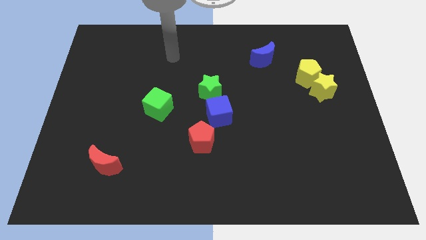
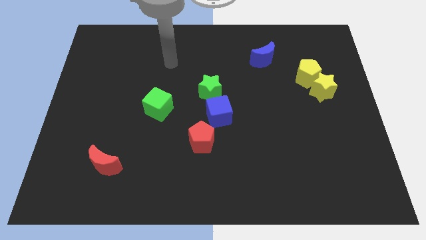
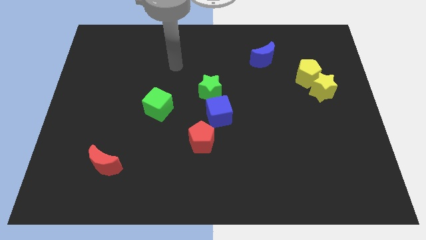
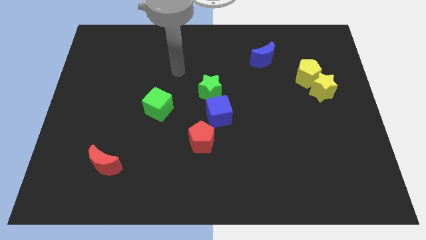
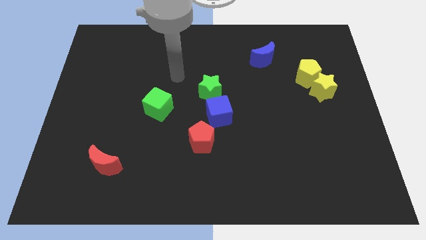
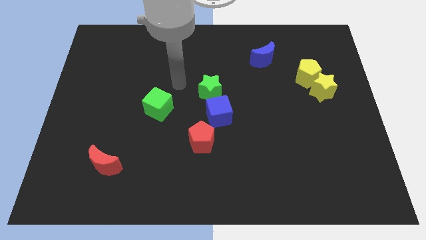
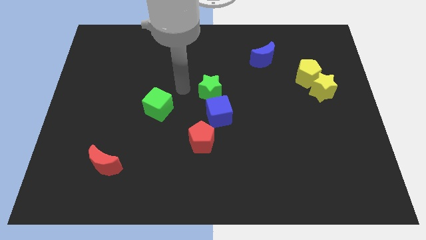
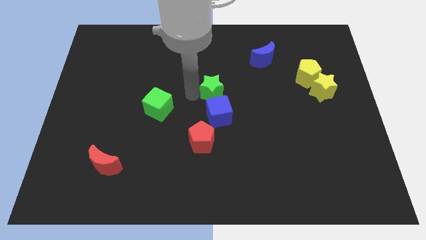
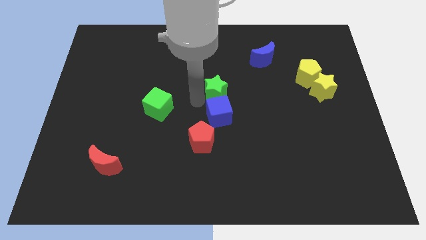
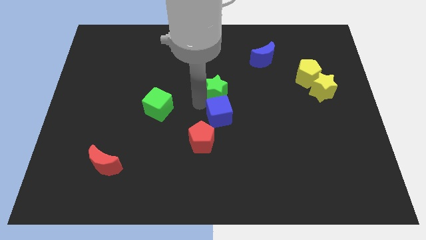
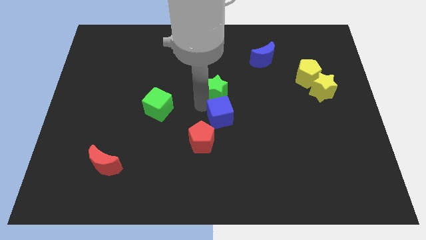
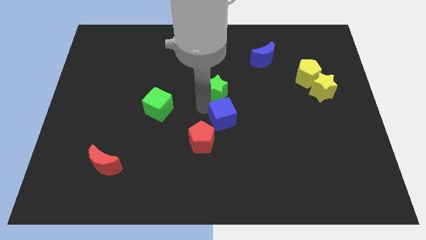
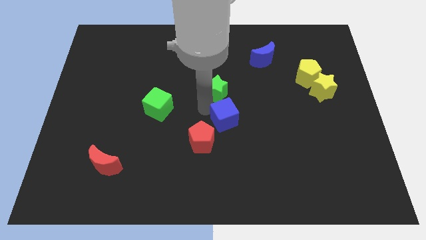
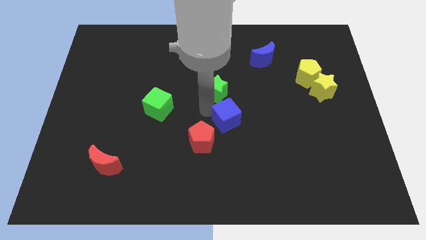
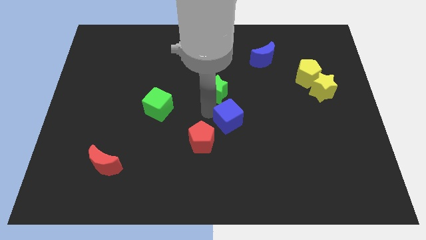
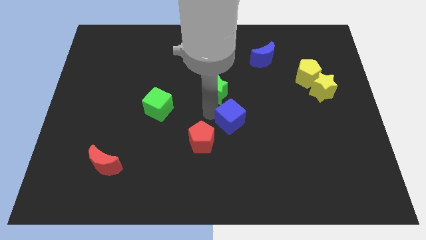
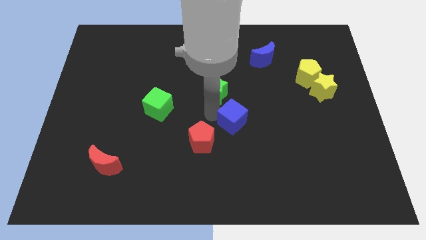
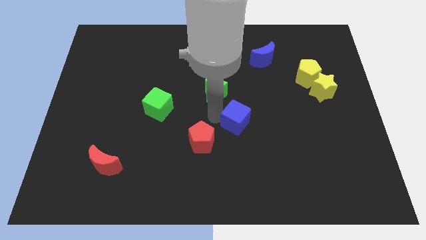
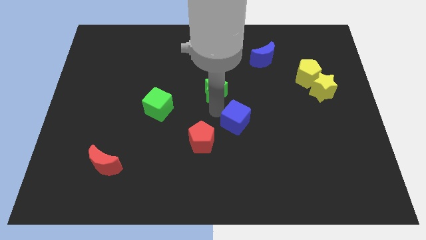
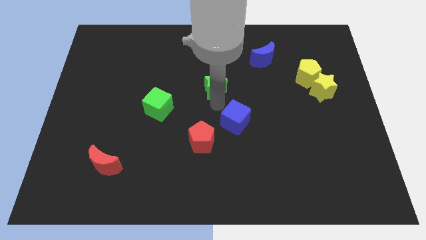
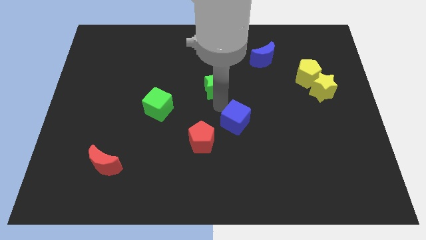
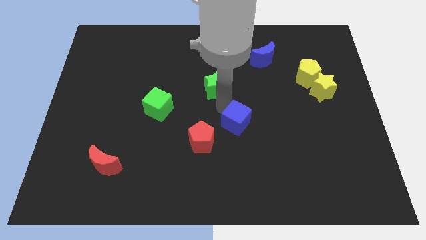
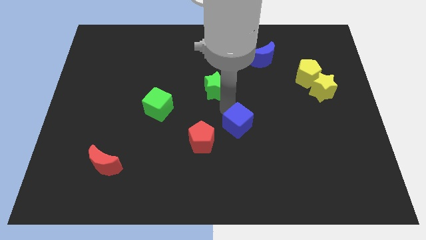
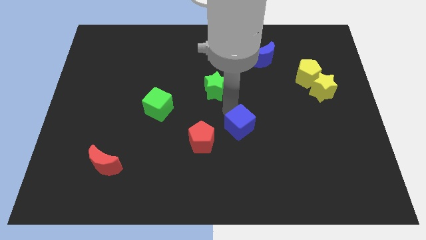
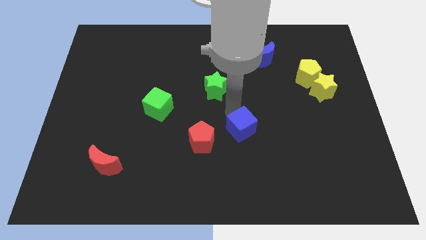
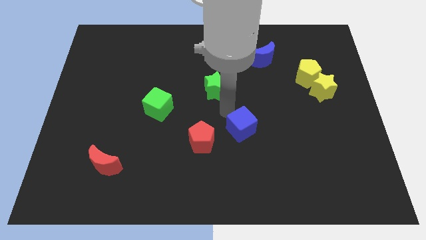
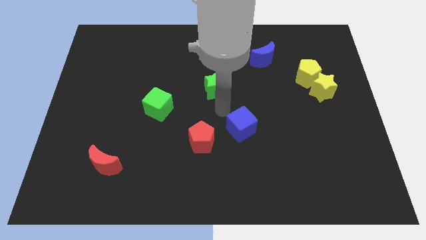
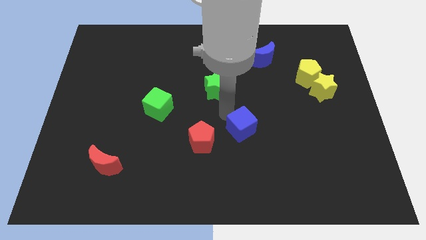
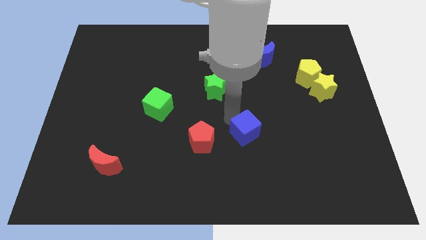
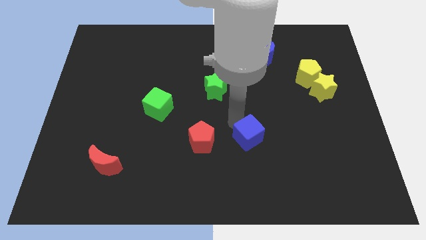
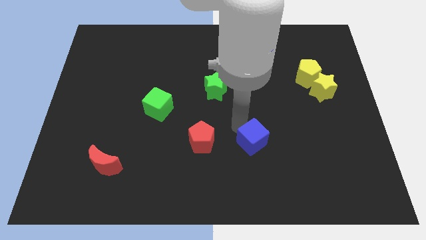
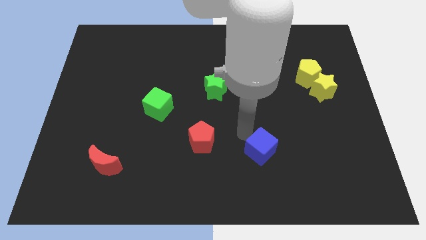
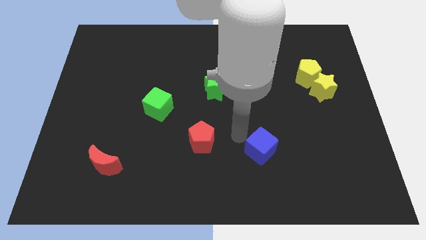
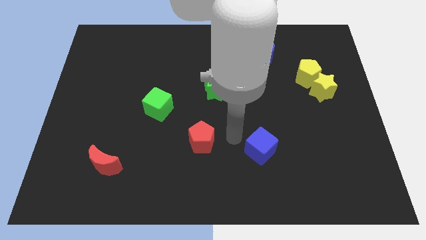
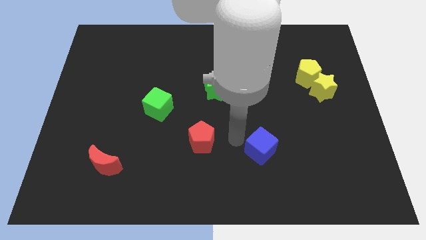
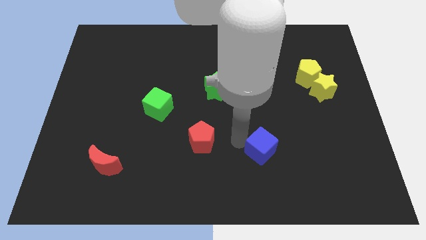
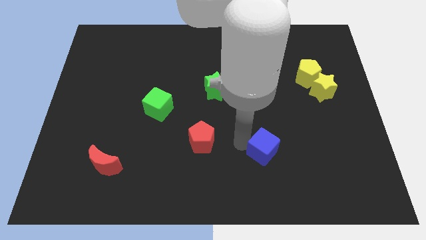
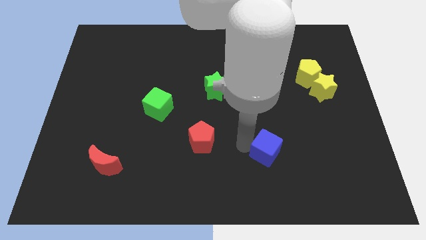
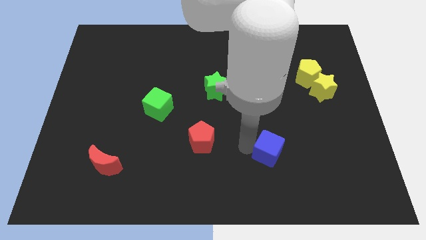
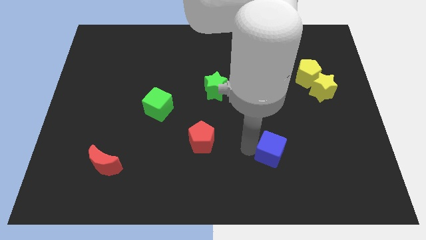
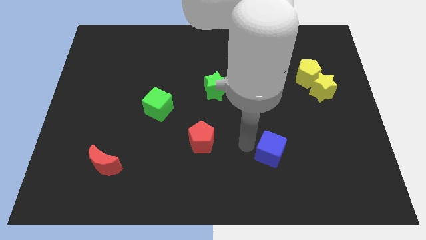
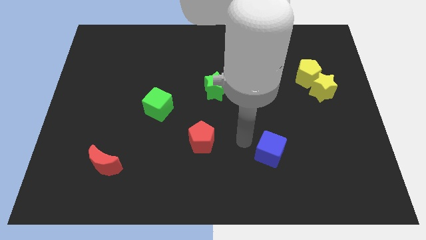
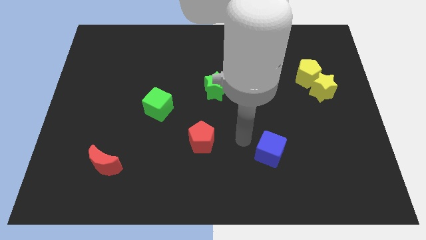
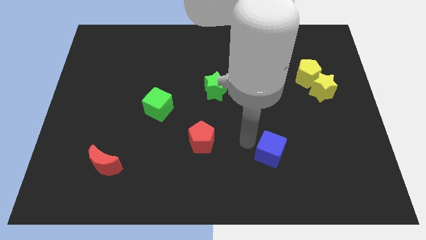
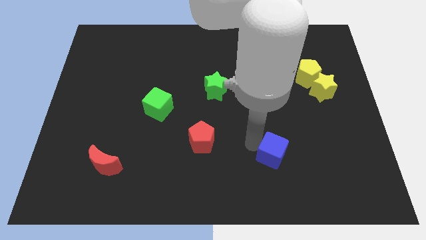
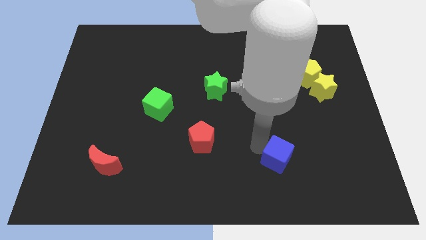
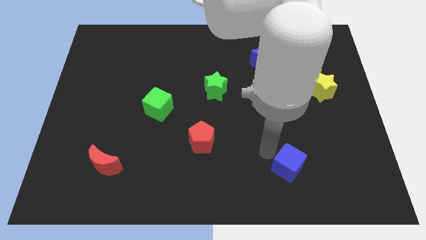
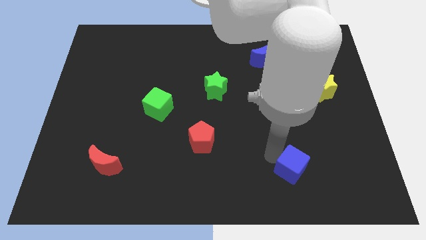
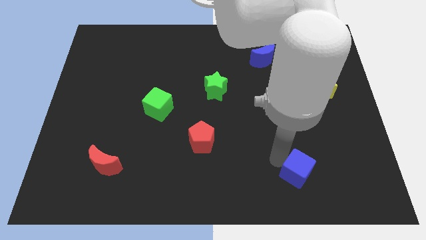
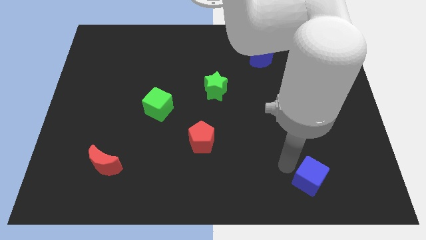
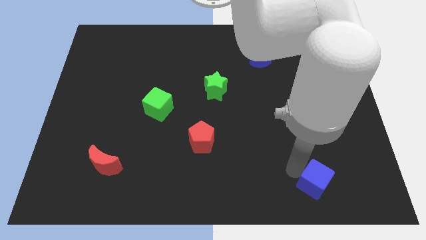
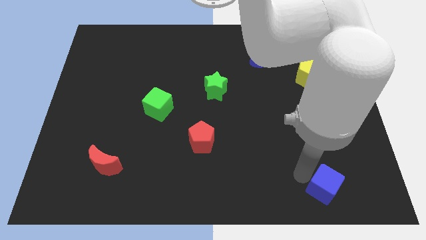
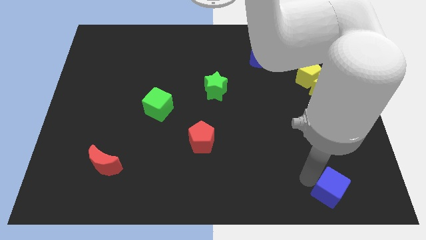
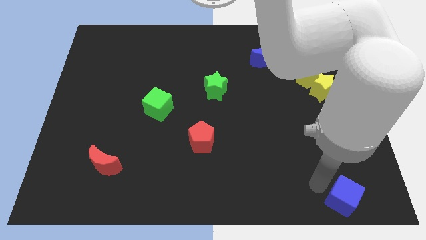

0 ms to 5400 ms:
put the blue cube to the bottom right corner

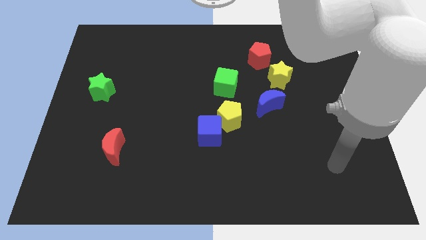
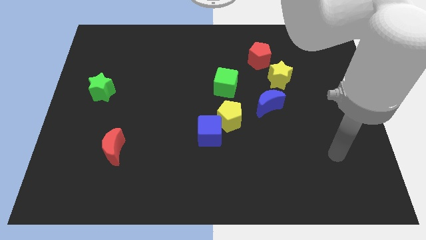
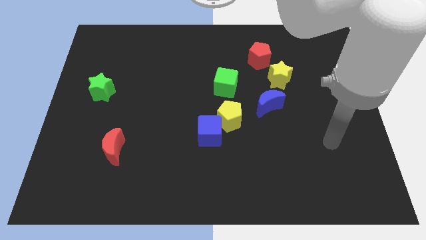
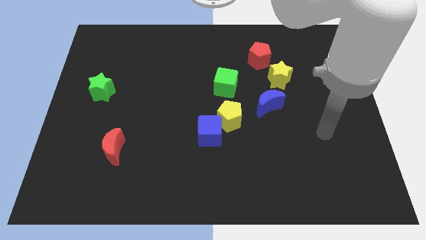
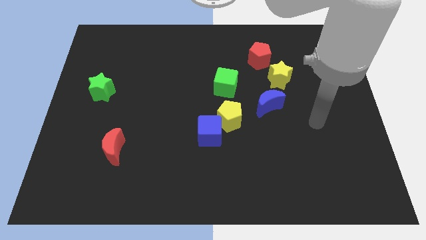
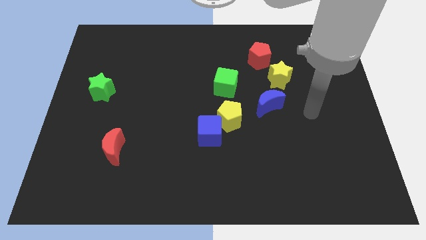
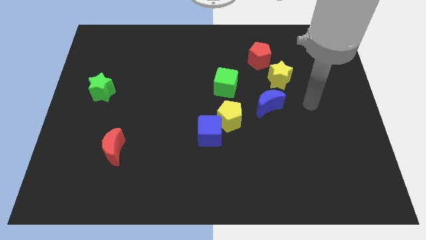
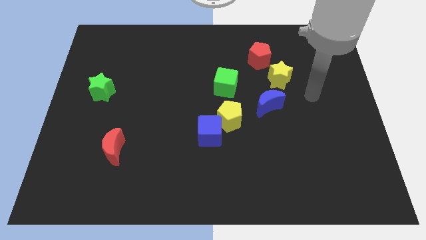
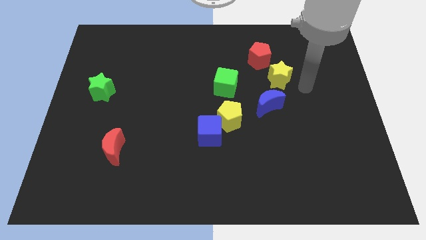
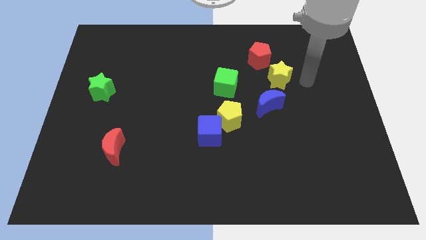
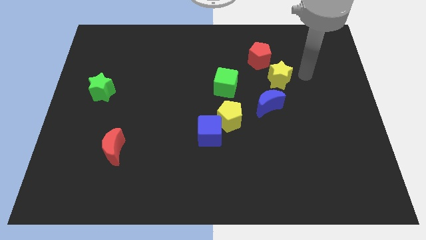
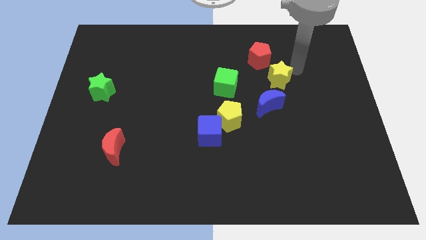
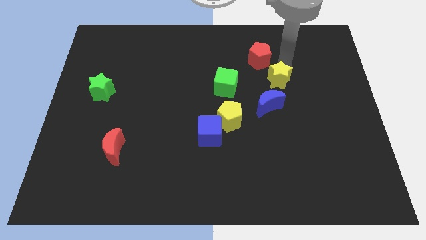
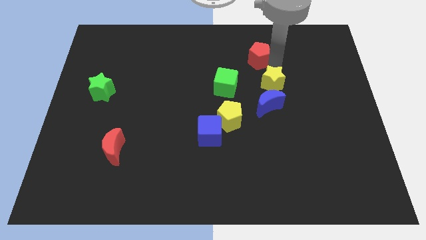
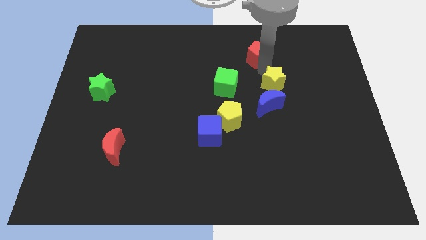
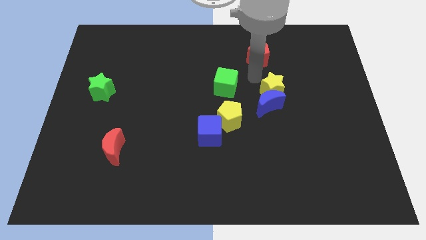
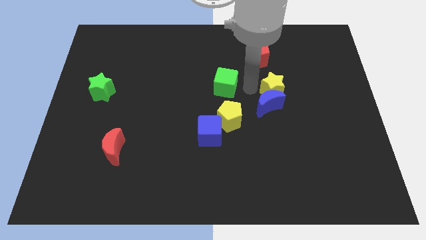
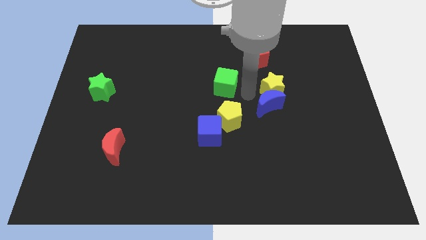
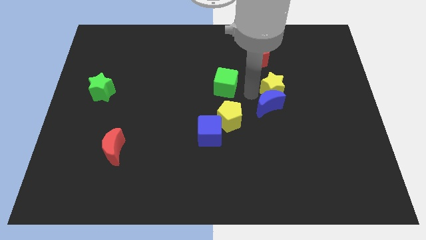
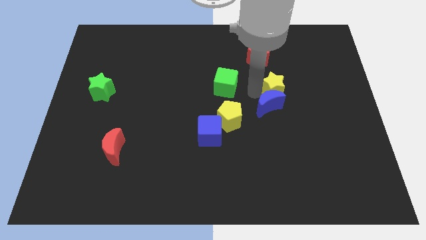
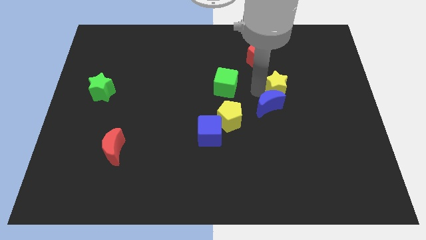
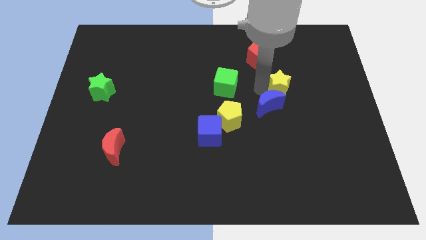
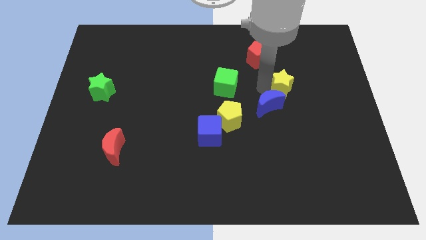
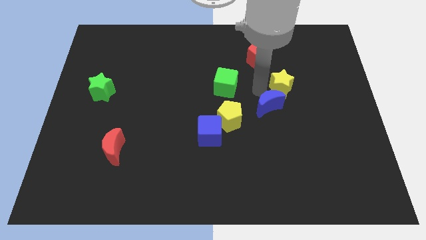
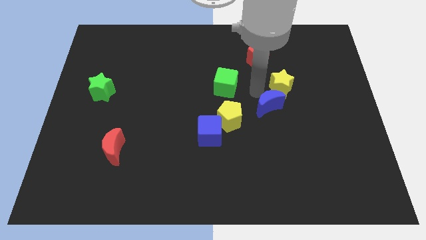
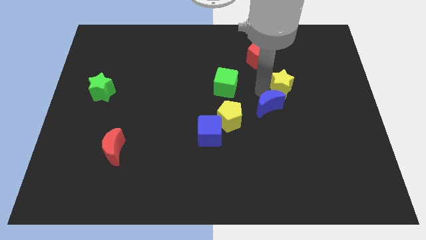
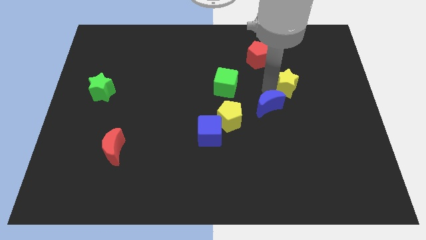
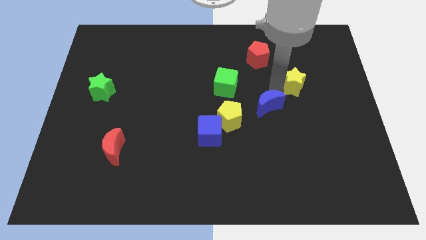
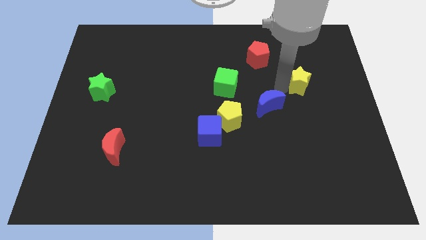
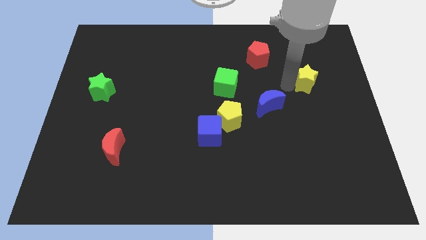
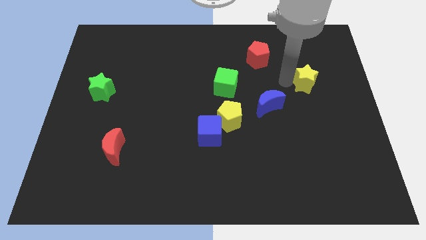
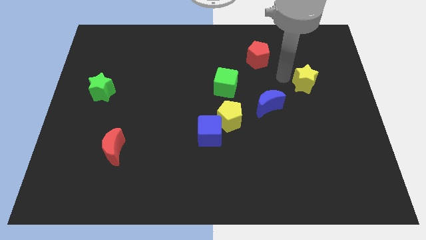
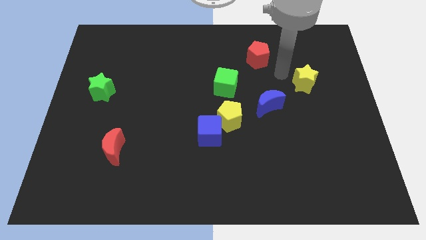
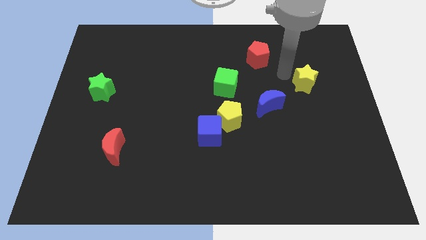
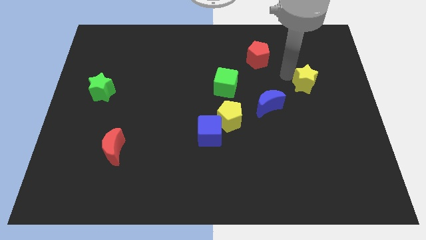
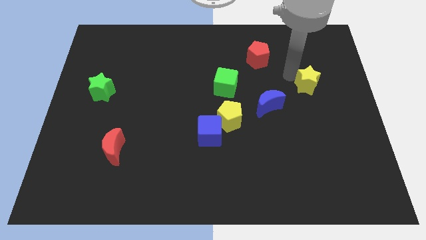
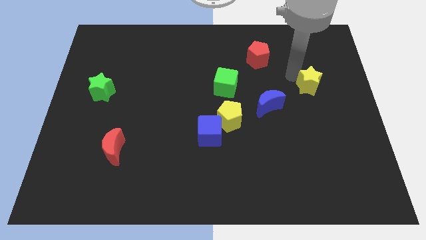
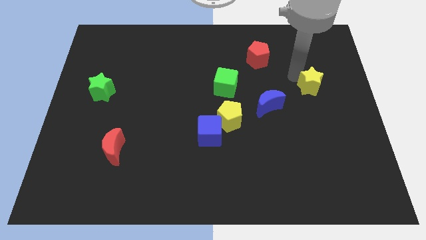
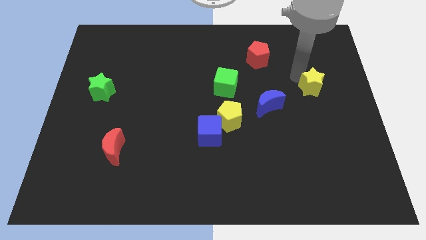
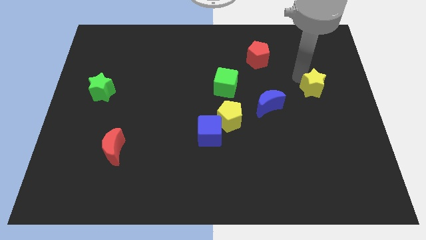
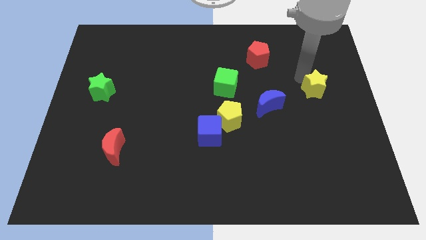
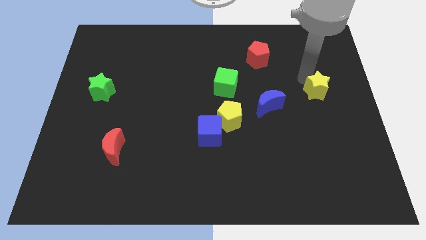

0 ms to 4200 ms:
slide the yellow star to the right side
